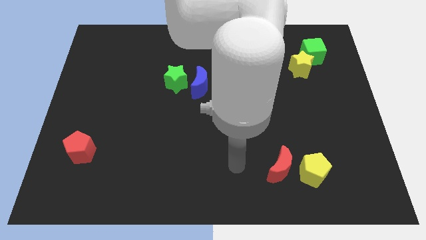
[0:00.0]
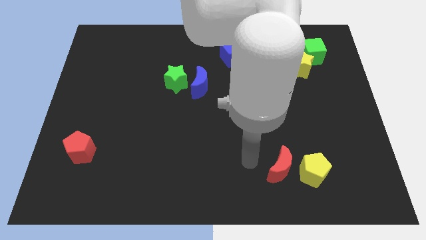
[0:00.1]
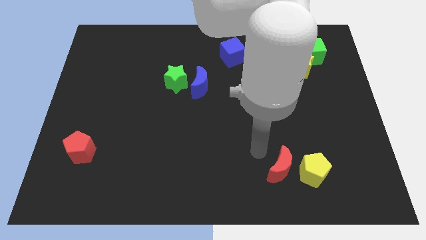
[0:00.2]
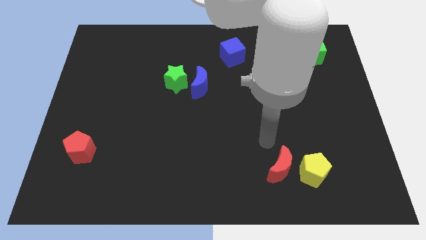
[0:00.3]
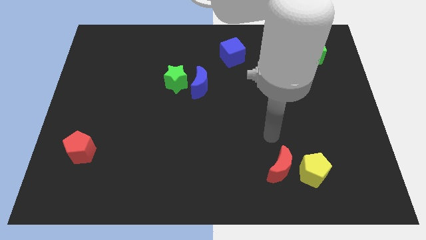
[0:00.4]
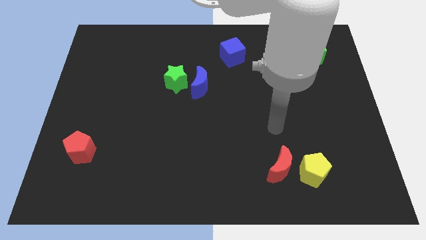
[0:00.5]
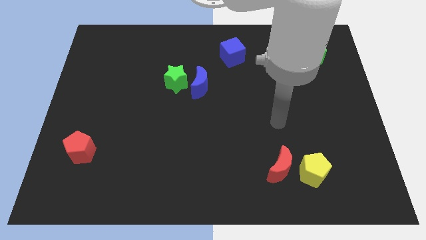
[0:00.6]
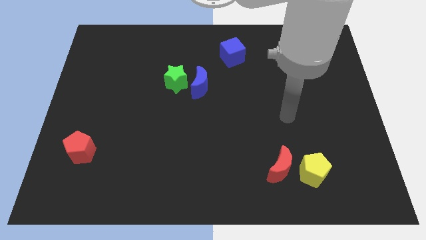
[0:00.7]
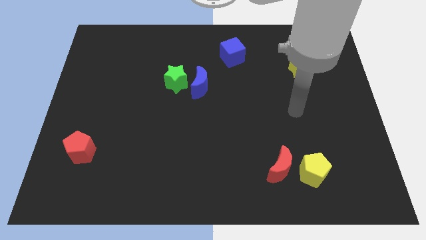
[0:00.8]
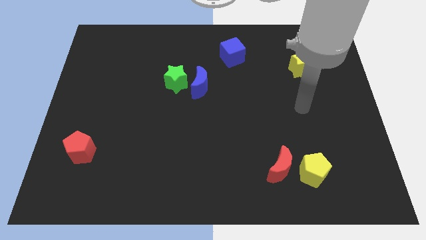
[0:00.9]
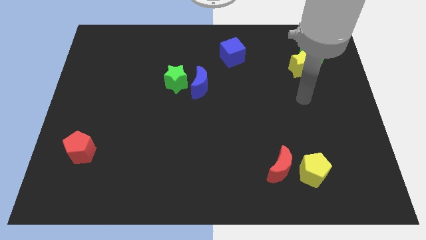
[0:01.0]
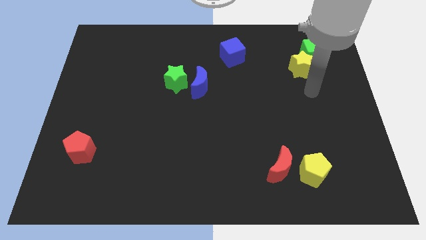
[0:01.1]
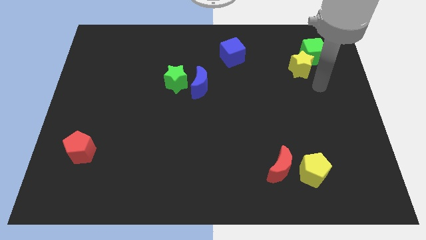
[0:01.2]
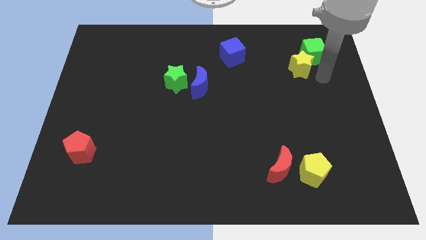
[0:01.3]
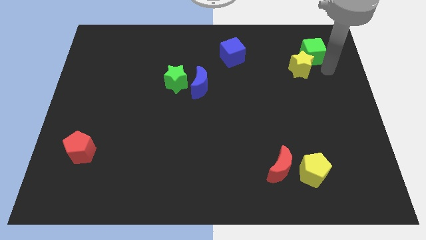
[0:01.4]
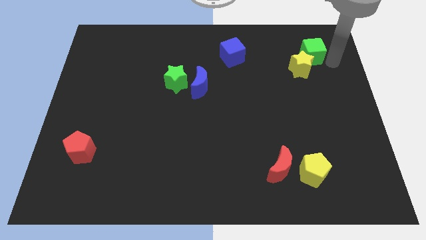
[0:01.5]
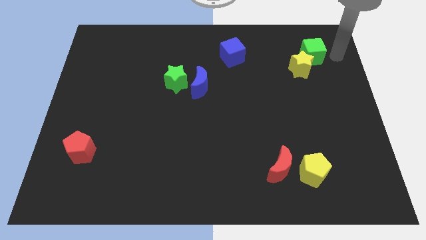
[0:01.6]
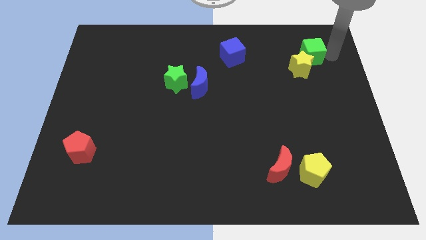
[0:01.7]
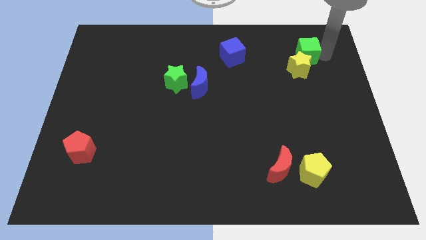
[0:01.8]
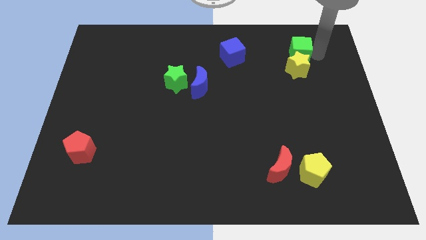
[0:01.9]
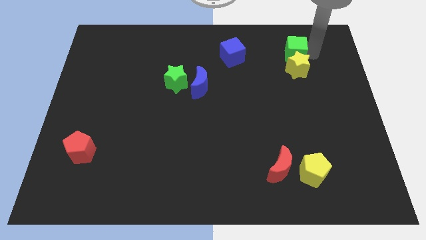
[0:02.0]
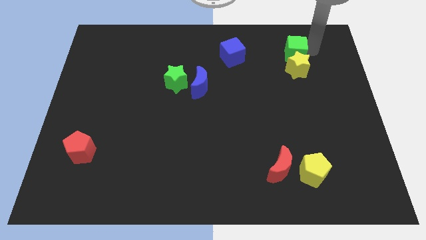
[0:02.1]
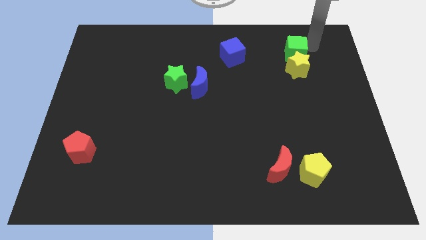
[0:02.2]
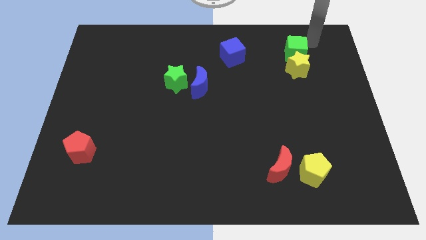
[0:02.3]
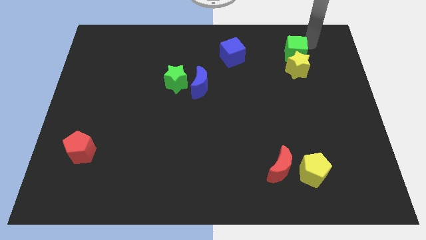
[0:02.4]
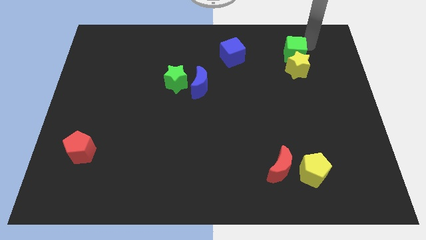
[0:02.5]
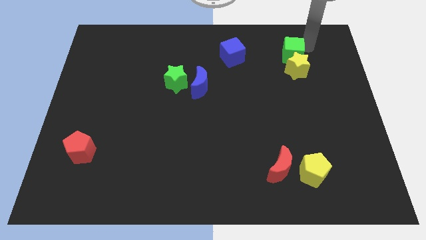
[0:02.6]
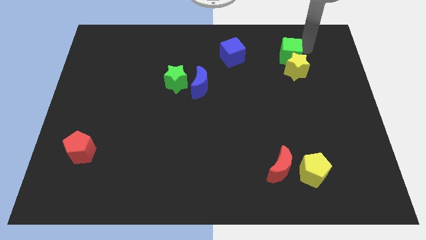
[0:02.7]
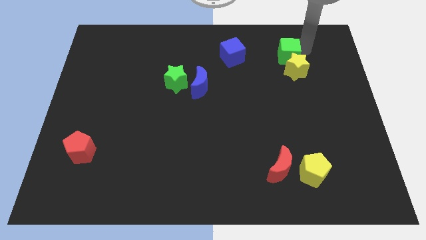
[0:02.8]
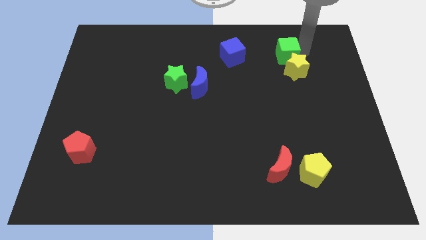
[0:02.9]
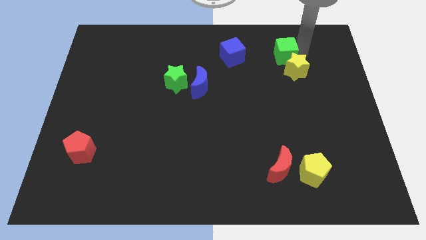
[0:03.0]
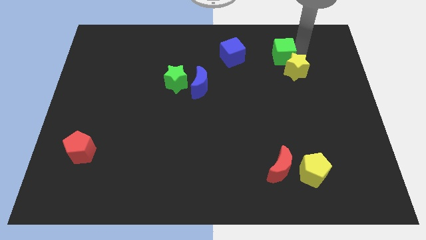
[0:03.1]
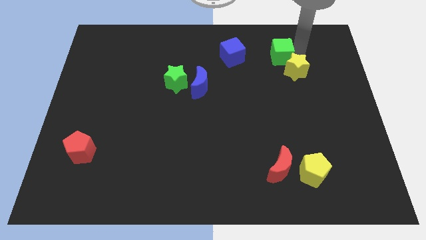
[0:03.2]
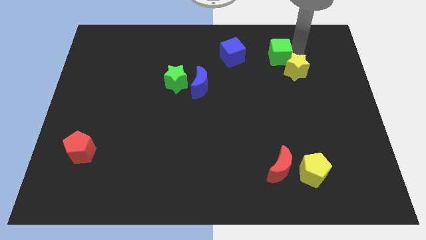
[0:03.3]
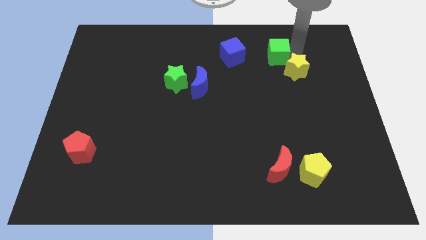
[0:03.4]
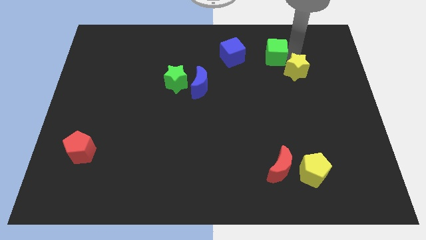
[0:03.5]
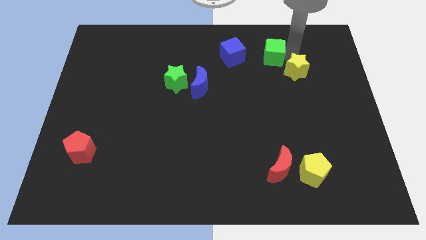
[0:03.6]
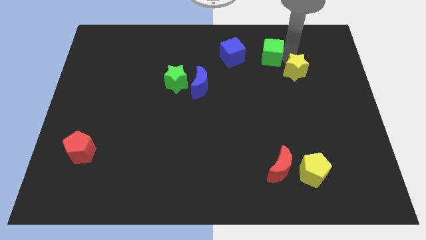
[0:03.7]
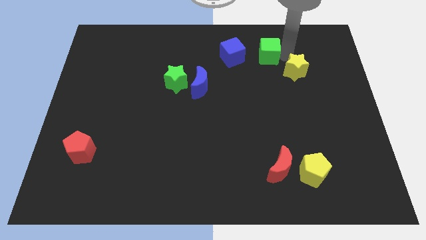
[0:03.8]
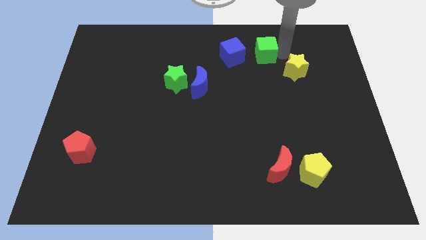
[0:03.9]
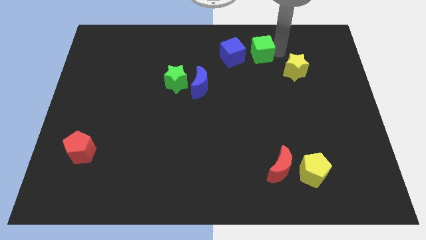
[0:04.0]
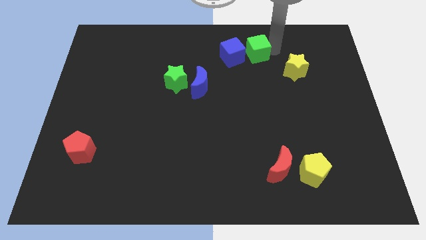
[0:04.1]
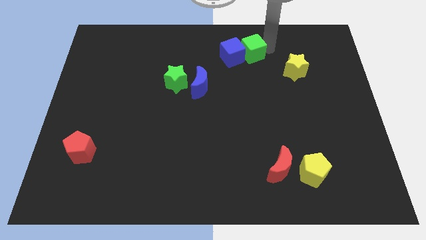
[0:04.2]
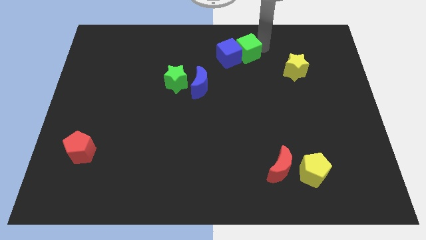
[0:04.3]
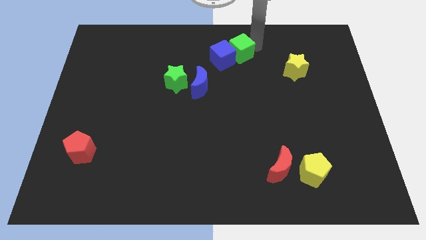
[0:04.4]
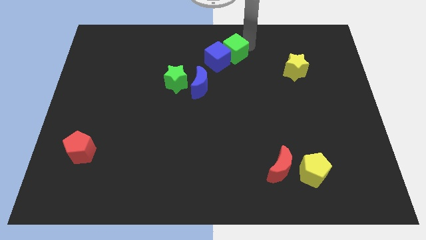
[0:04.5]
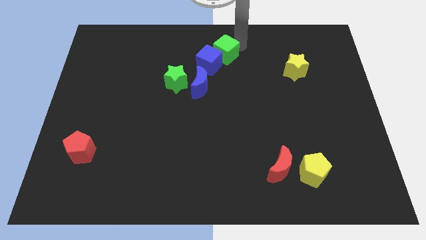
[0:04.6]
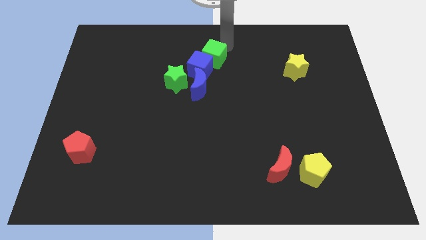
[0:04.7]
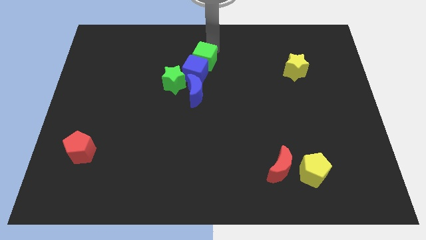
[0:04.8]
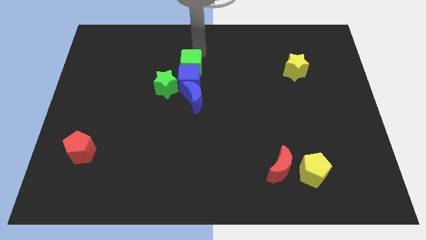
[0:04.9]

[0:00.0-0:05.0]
move the green cube to the middle

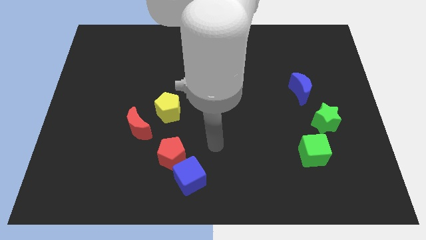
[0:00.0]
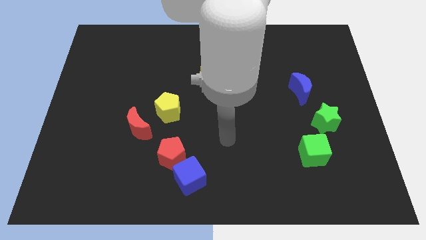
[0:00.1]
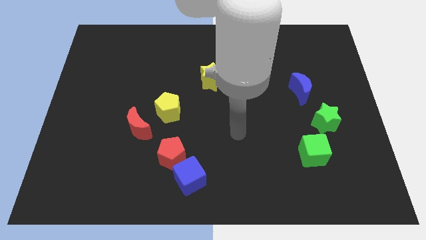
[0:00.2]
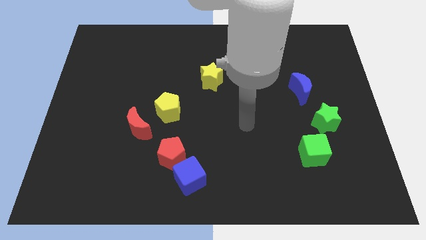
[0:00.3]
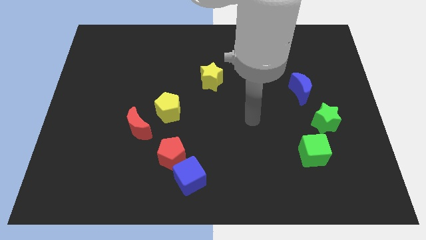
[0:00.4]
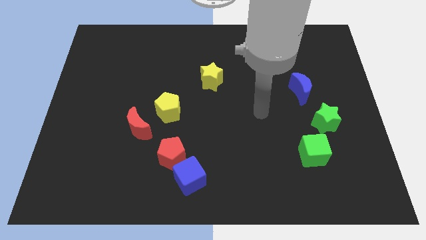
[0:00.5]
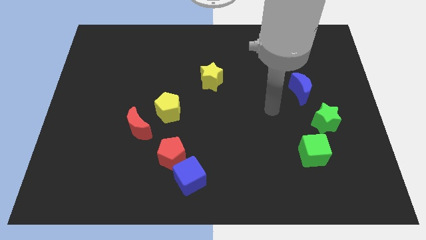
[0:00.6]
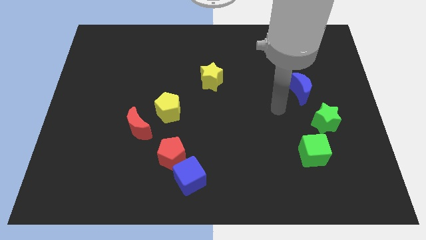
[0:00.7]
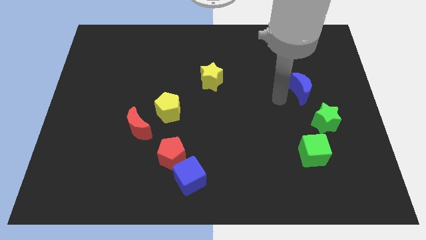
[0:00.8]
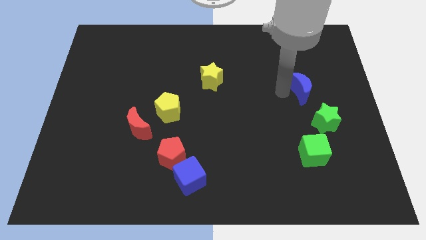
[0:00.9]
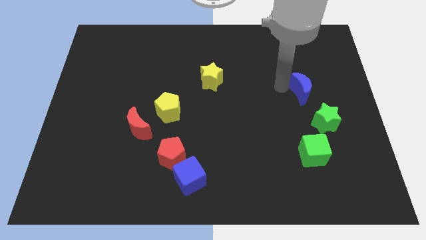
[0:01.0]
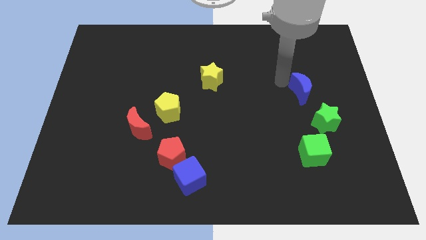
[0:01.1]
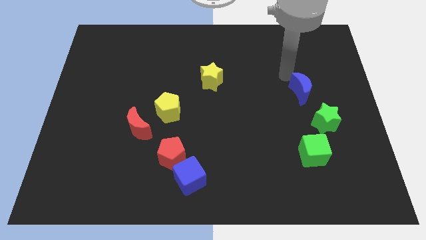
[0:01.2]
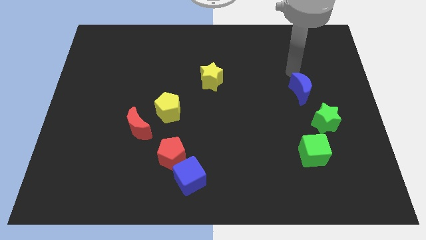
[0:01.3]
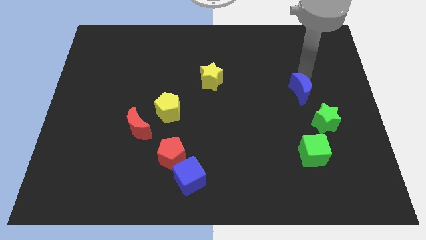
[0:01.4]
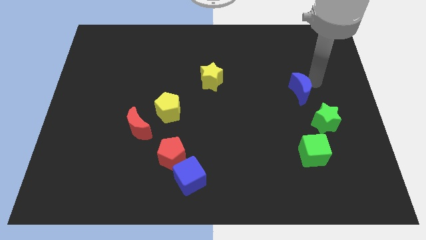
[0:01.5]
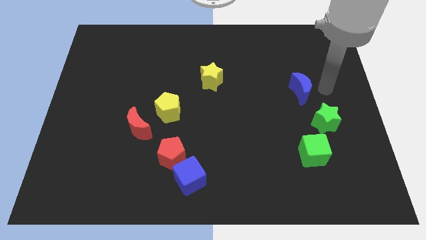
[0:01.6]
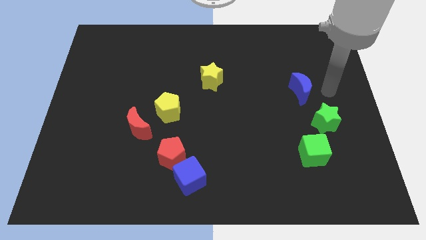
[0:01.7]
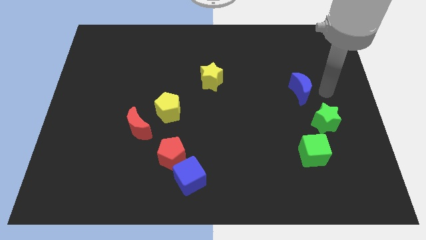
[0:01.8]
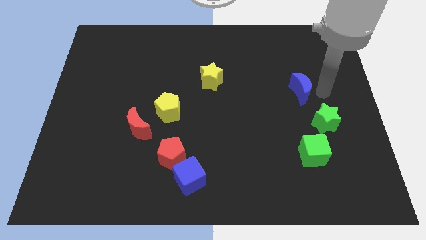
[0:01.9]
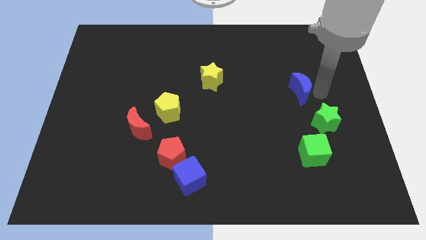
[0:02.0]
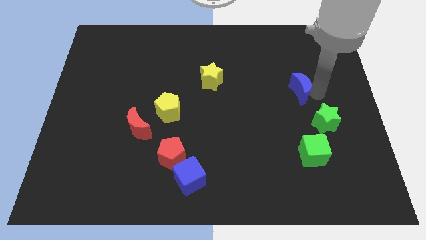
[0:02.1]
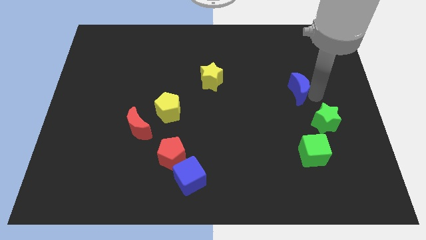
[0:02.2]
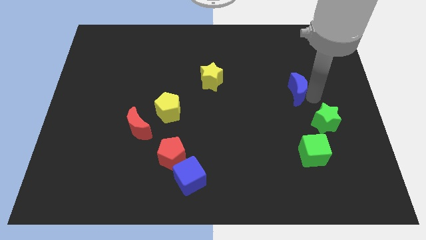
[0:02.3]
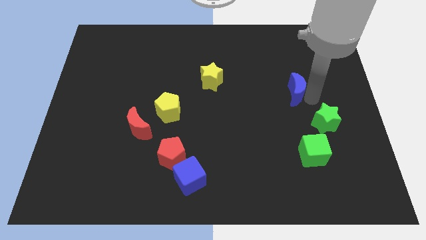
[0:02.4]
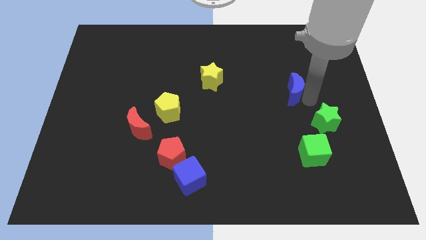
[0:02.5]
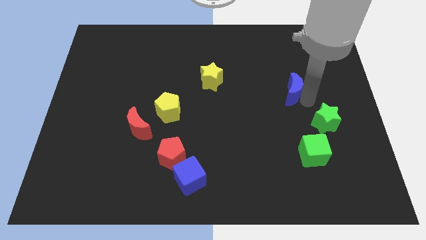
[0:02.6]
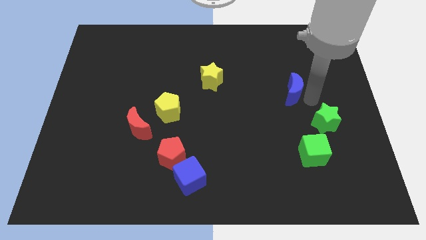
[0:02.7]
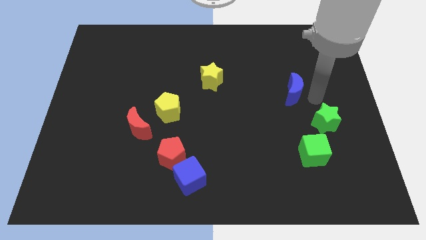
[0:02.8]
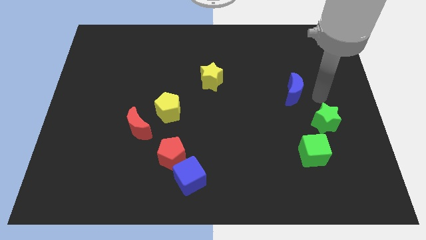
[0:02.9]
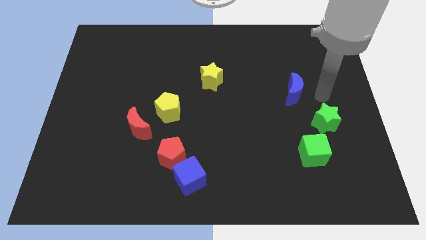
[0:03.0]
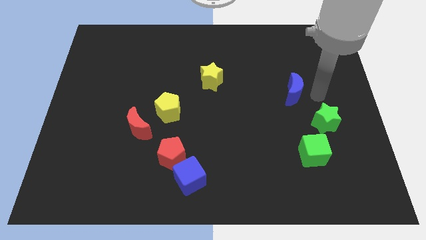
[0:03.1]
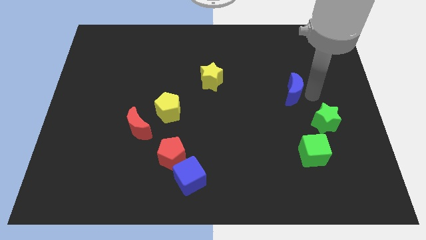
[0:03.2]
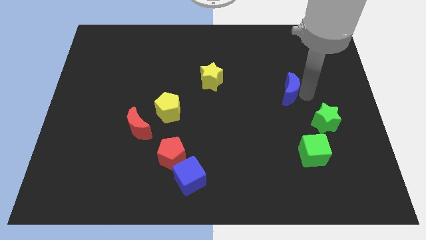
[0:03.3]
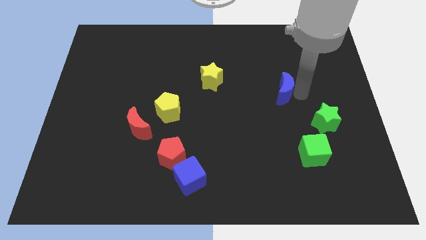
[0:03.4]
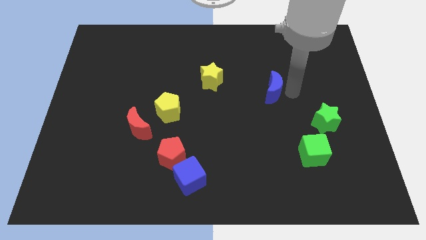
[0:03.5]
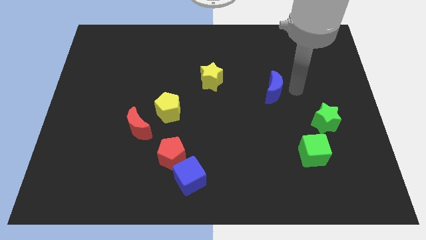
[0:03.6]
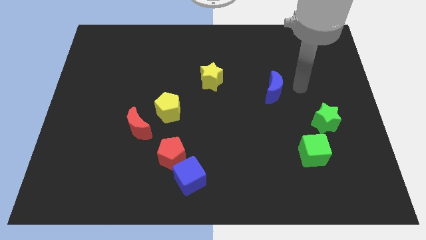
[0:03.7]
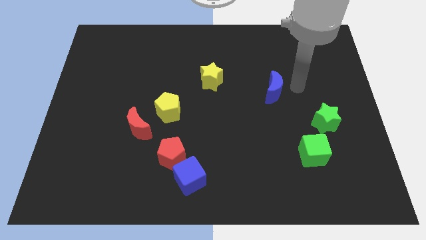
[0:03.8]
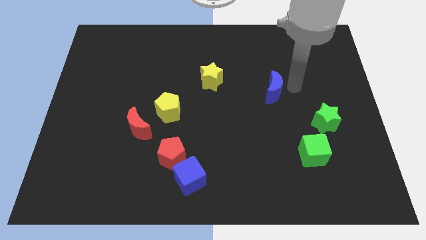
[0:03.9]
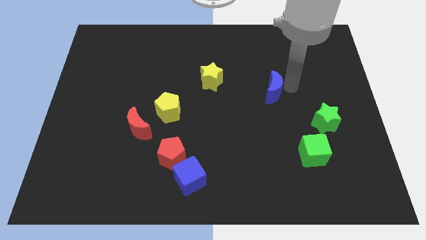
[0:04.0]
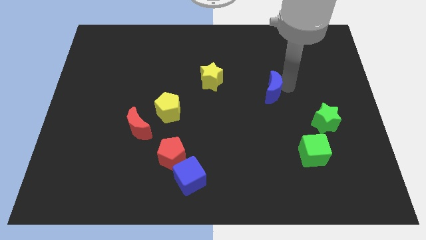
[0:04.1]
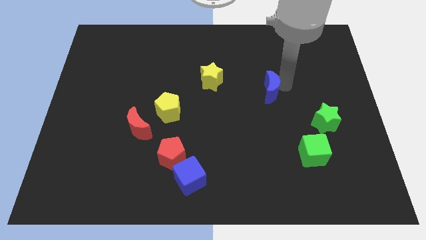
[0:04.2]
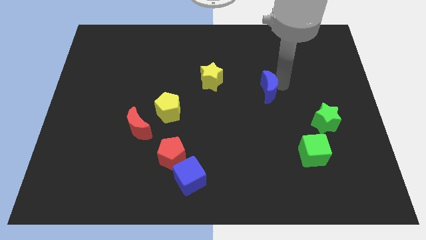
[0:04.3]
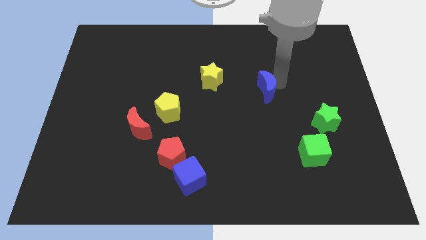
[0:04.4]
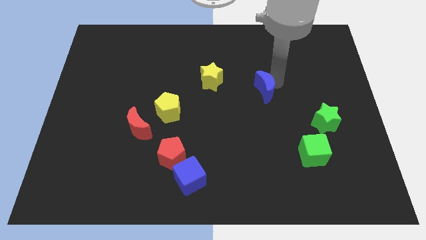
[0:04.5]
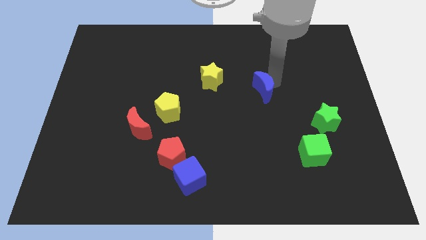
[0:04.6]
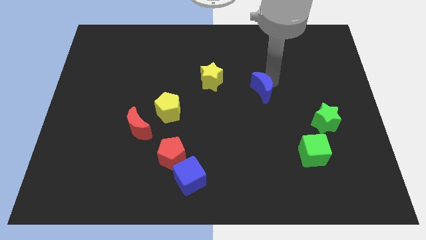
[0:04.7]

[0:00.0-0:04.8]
put the blue moon to the center of the board
